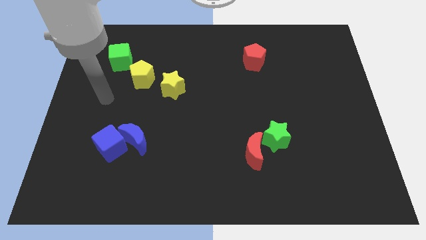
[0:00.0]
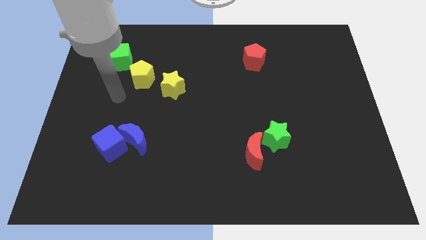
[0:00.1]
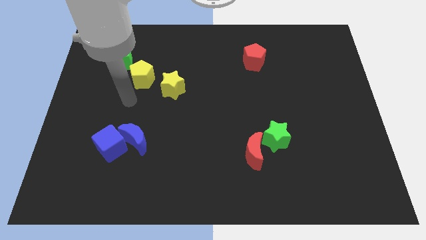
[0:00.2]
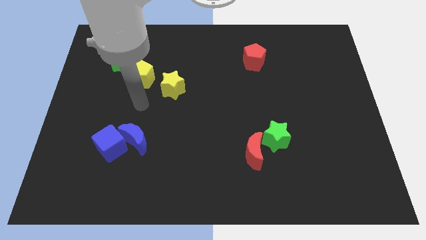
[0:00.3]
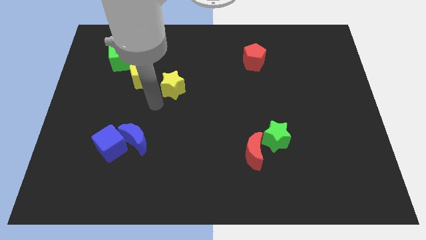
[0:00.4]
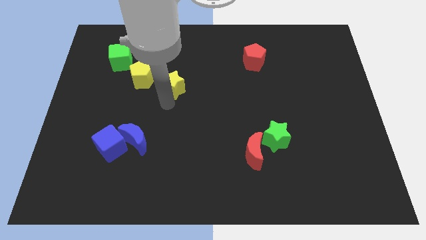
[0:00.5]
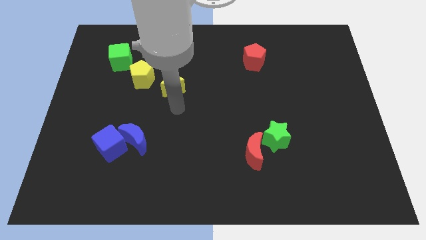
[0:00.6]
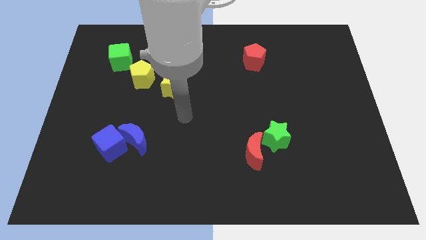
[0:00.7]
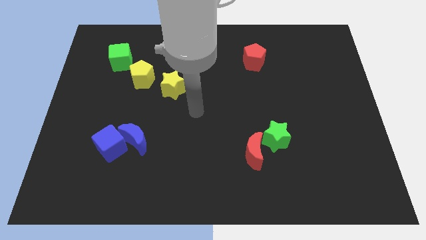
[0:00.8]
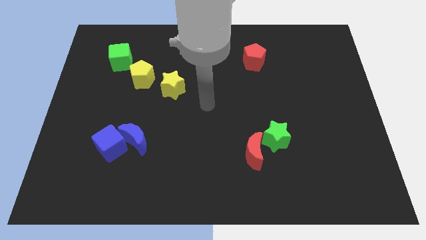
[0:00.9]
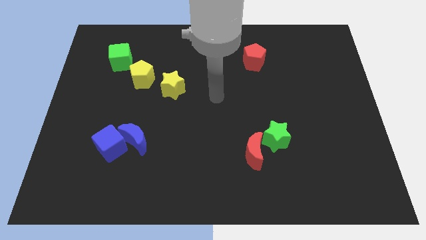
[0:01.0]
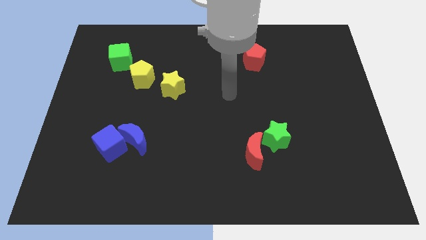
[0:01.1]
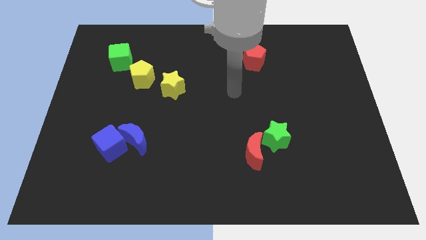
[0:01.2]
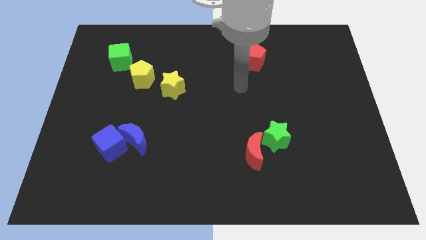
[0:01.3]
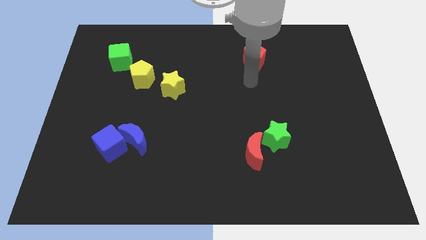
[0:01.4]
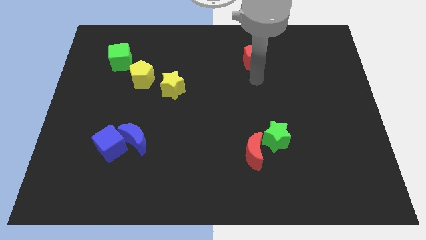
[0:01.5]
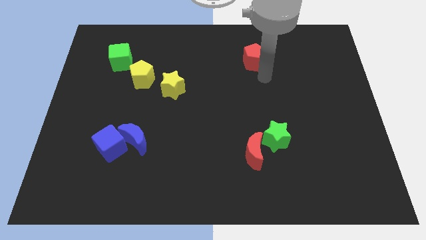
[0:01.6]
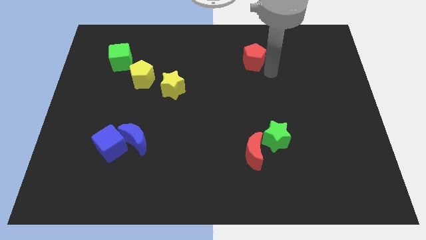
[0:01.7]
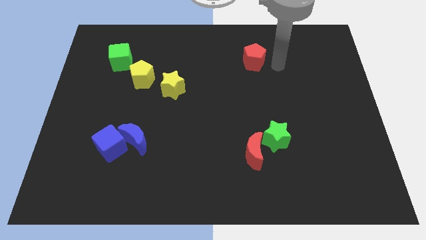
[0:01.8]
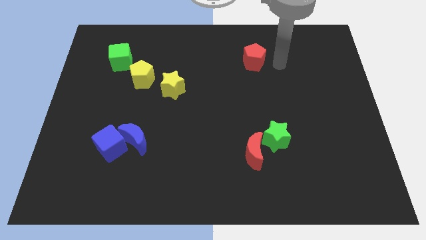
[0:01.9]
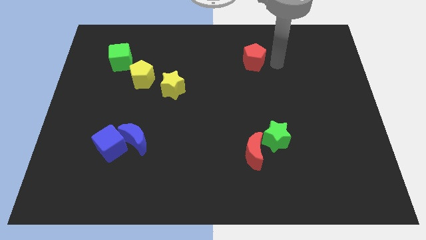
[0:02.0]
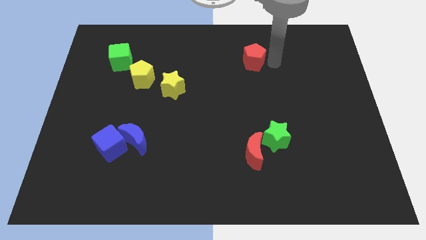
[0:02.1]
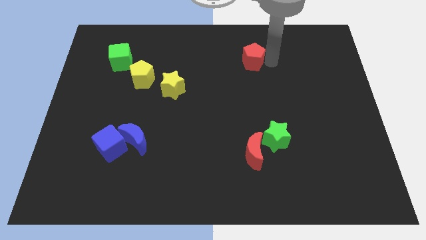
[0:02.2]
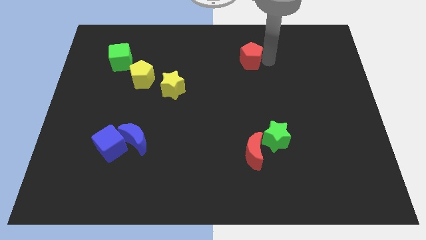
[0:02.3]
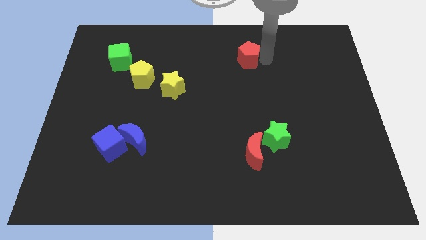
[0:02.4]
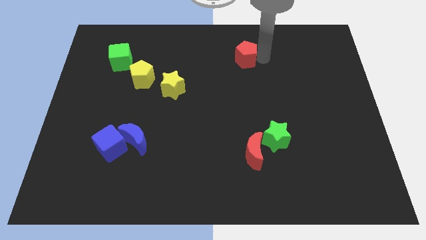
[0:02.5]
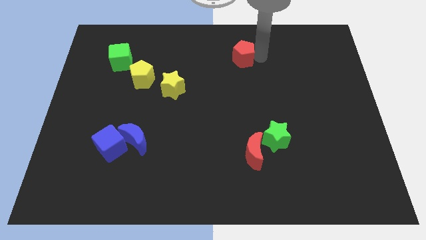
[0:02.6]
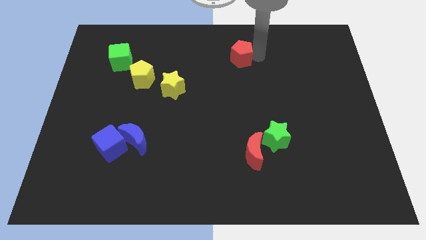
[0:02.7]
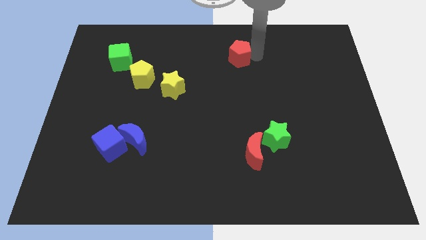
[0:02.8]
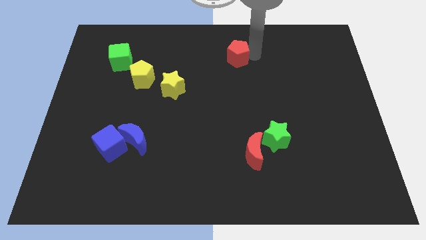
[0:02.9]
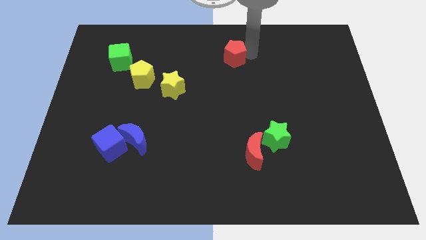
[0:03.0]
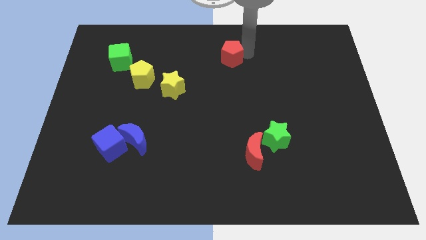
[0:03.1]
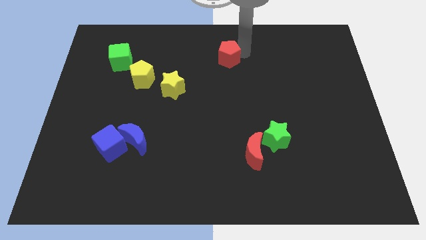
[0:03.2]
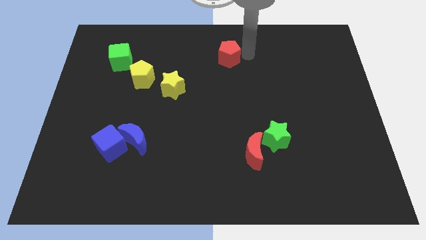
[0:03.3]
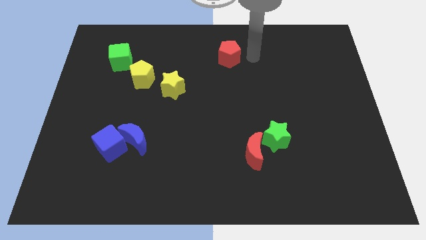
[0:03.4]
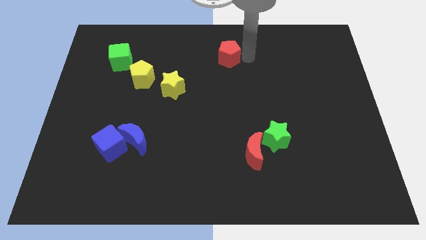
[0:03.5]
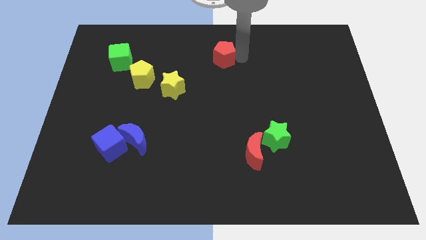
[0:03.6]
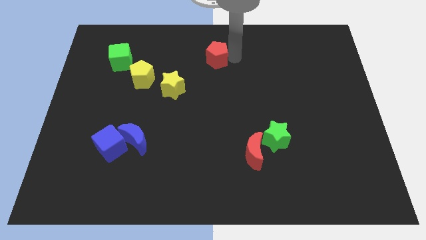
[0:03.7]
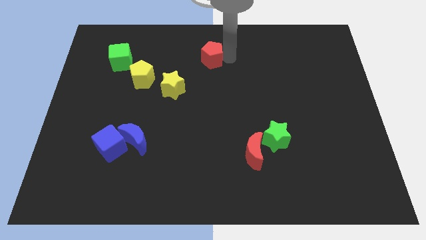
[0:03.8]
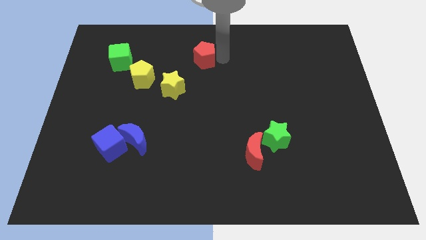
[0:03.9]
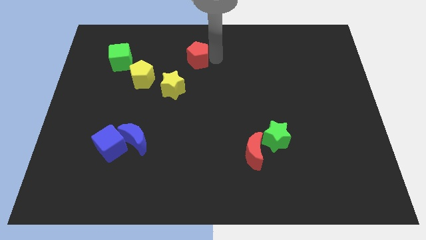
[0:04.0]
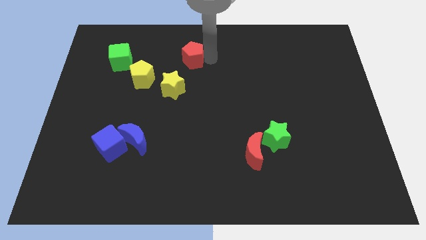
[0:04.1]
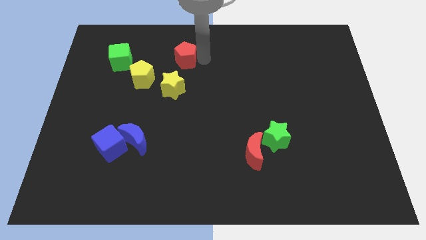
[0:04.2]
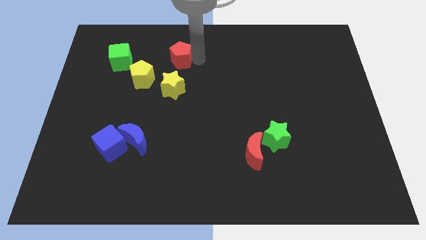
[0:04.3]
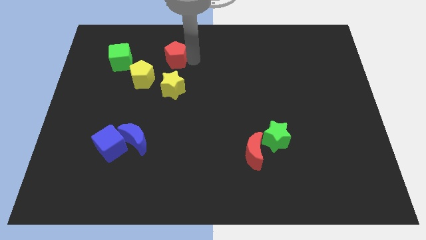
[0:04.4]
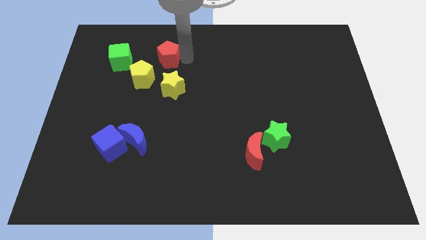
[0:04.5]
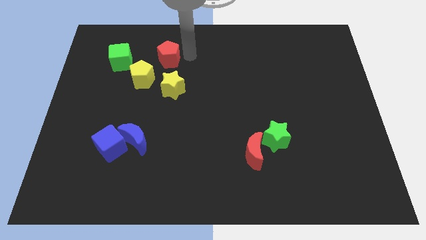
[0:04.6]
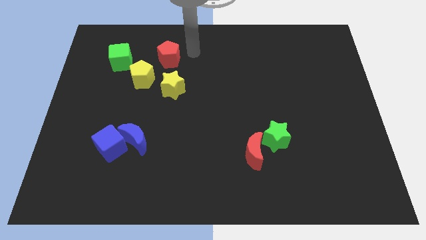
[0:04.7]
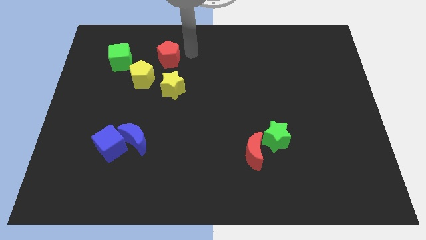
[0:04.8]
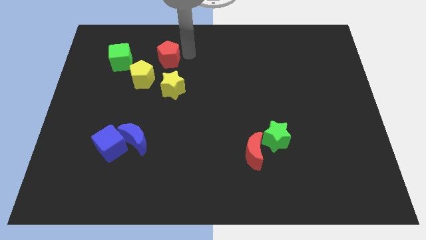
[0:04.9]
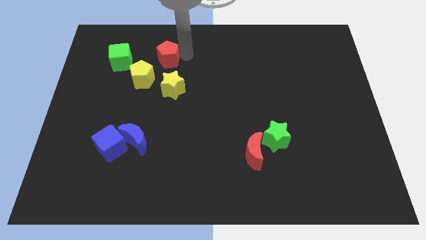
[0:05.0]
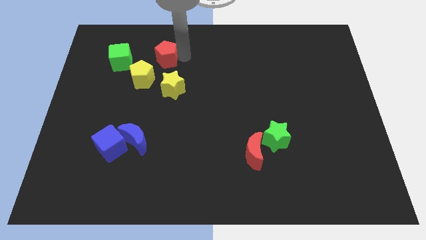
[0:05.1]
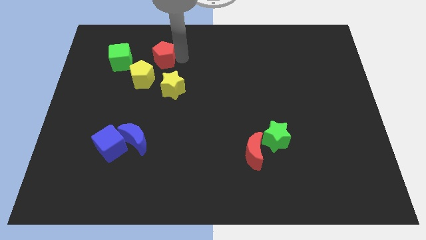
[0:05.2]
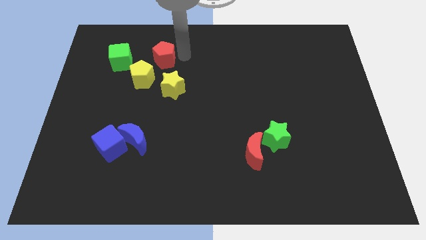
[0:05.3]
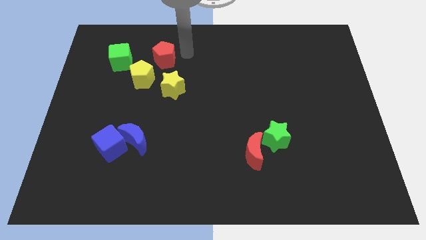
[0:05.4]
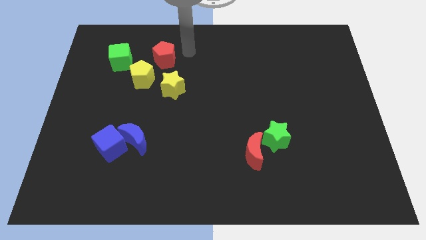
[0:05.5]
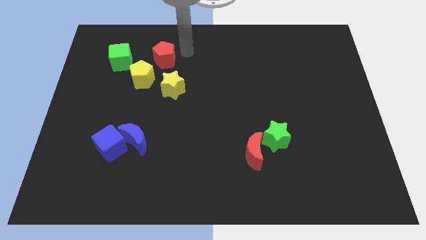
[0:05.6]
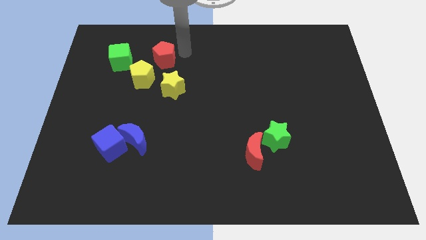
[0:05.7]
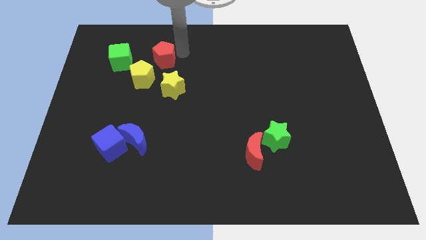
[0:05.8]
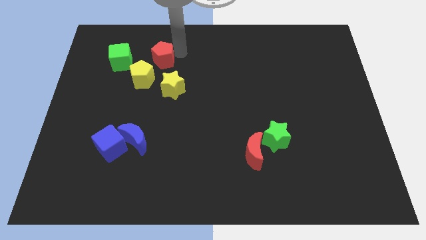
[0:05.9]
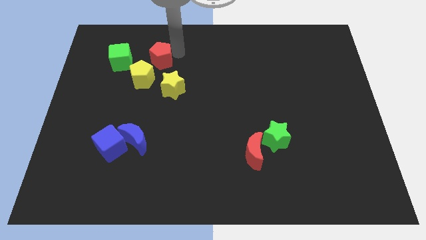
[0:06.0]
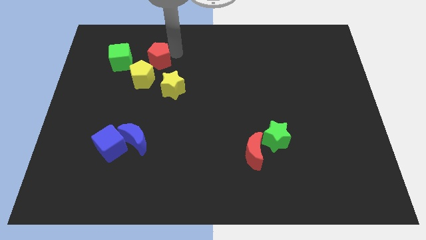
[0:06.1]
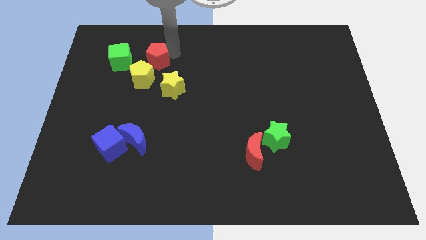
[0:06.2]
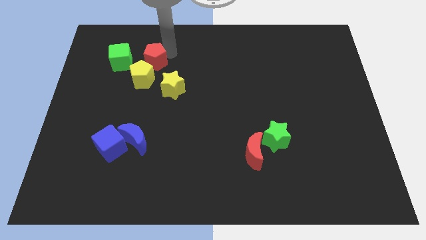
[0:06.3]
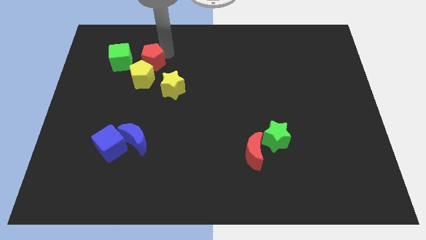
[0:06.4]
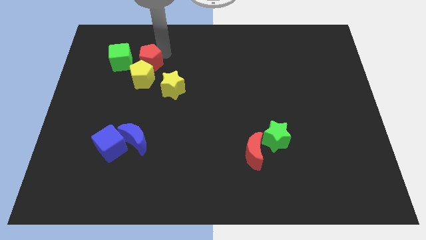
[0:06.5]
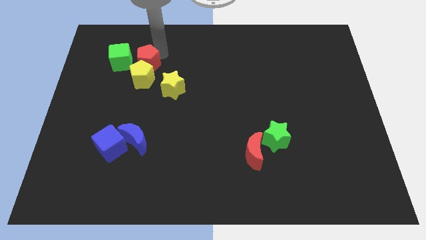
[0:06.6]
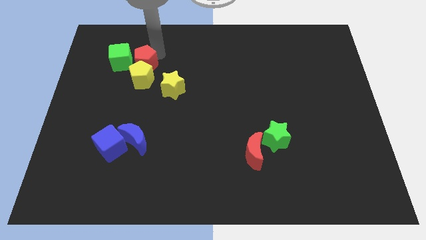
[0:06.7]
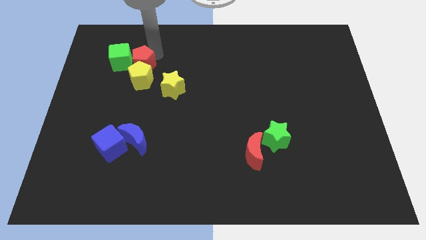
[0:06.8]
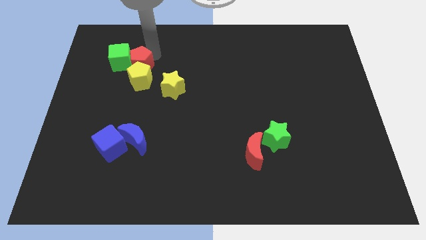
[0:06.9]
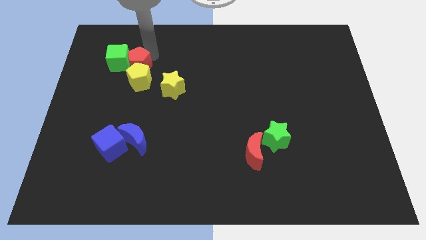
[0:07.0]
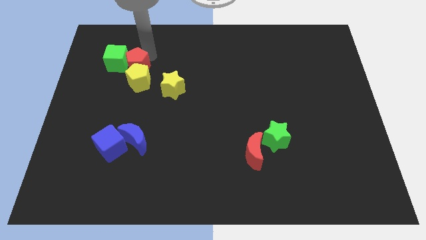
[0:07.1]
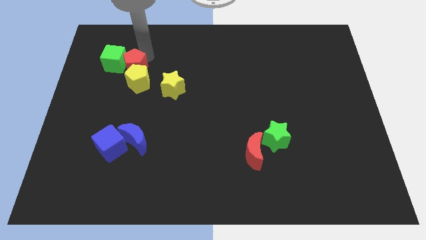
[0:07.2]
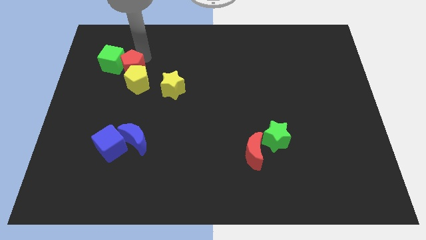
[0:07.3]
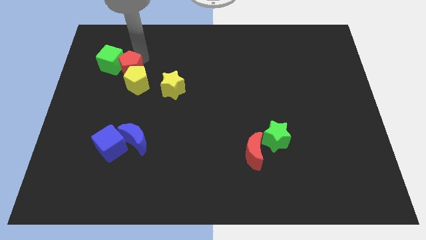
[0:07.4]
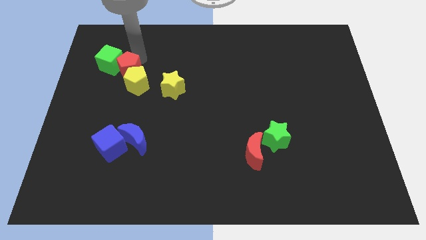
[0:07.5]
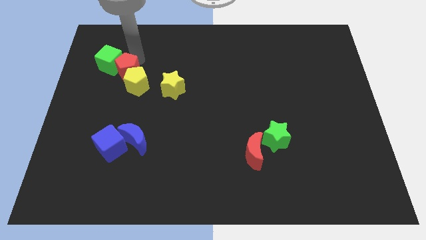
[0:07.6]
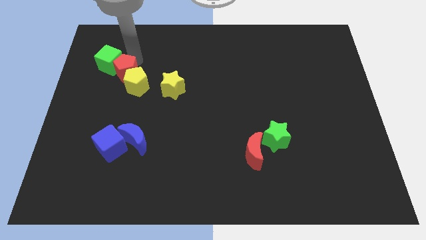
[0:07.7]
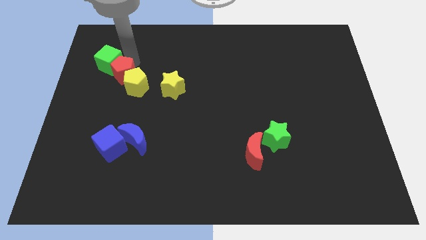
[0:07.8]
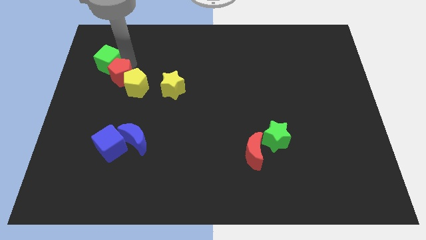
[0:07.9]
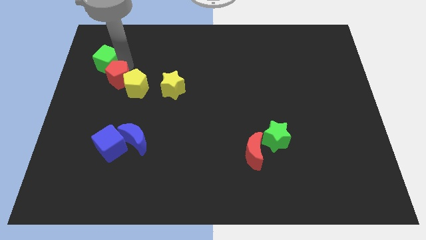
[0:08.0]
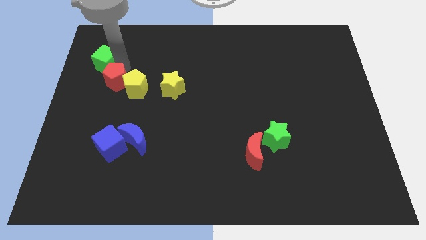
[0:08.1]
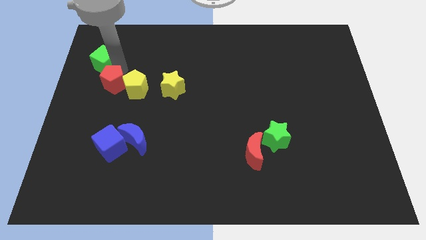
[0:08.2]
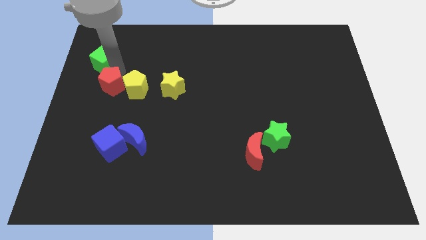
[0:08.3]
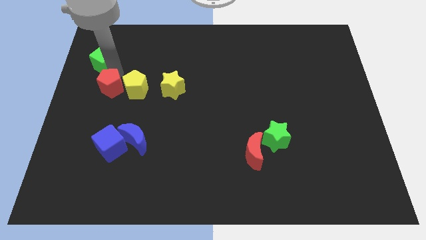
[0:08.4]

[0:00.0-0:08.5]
push the red pentagon diagonally down and to the left of the yellow pentagon
